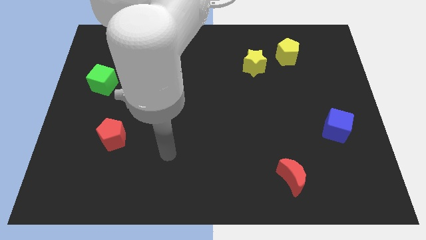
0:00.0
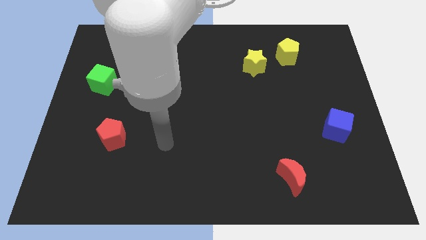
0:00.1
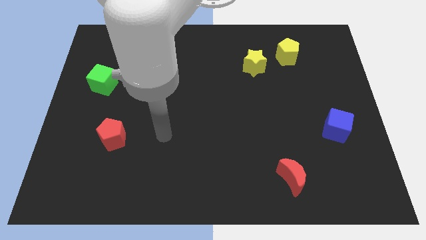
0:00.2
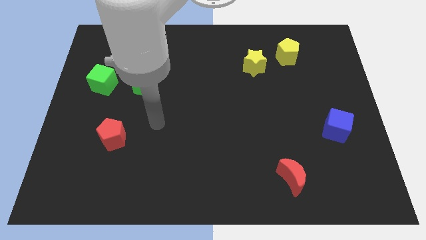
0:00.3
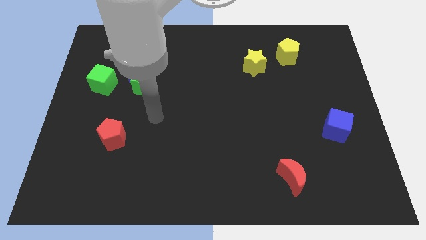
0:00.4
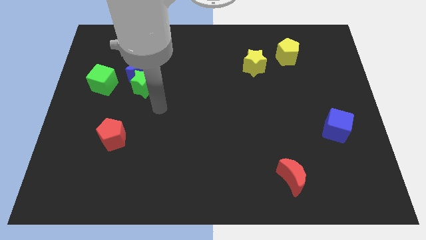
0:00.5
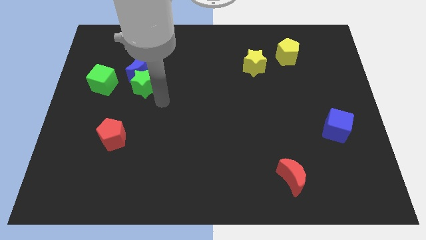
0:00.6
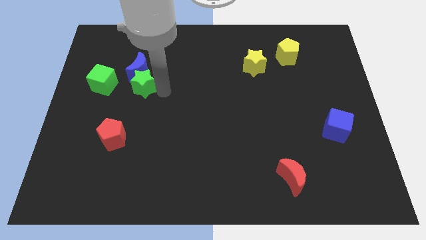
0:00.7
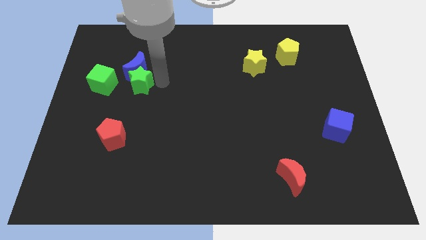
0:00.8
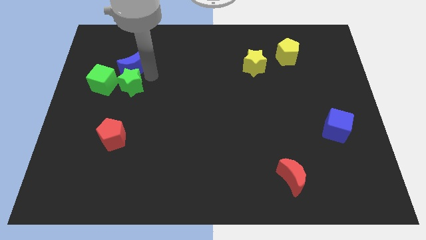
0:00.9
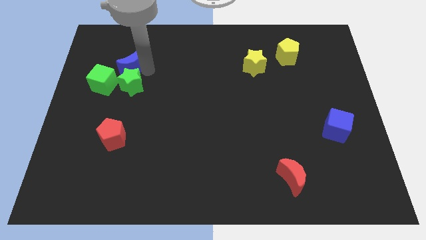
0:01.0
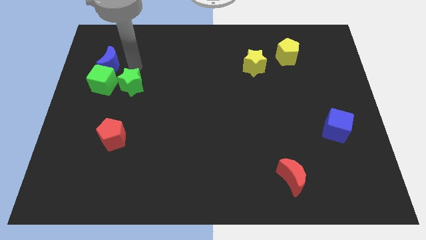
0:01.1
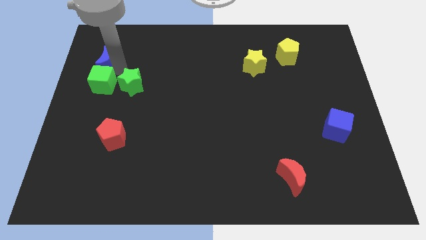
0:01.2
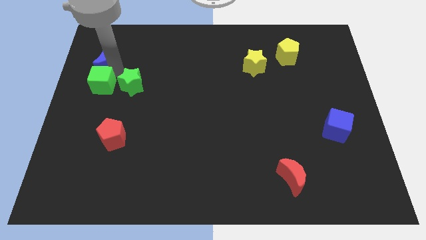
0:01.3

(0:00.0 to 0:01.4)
separate the green star from the blue moon

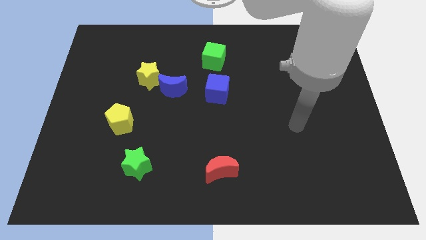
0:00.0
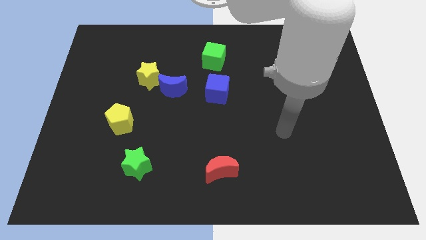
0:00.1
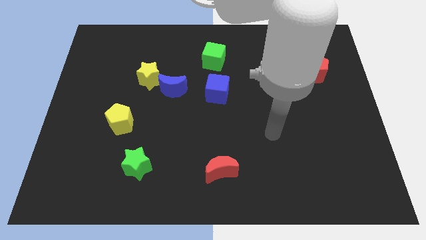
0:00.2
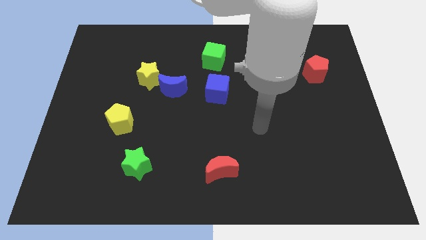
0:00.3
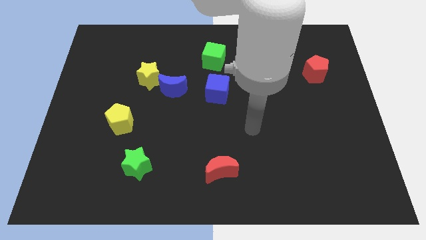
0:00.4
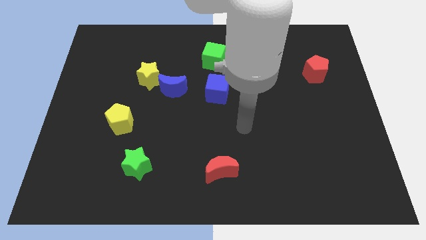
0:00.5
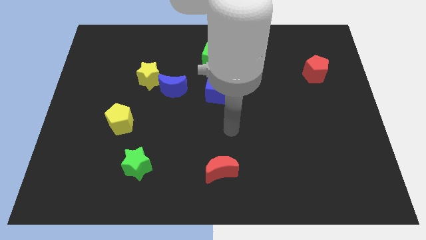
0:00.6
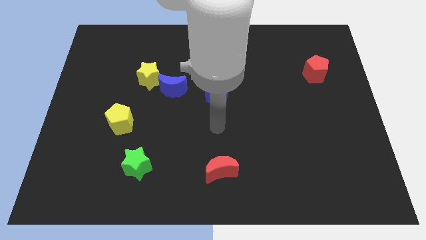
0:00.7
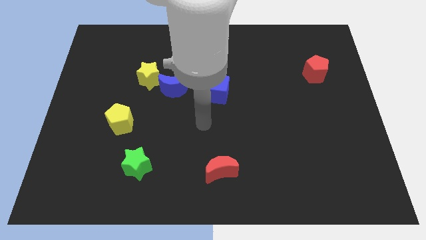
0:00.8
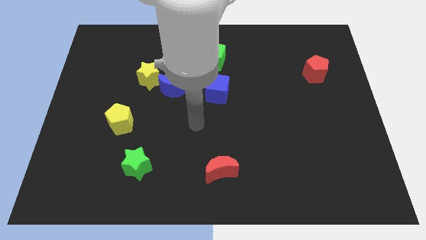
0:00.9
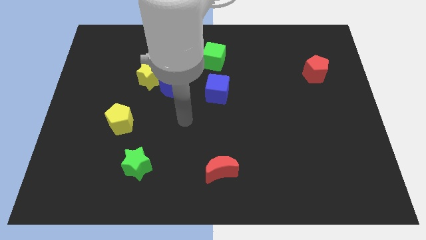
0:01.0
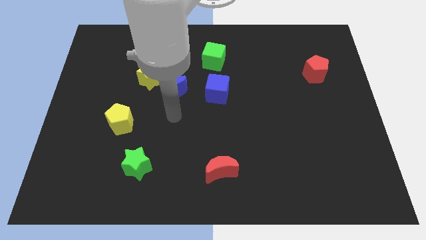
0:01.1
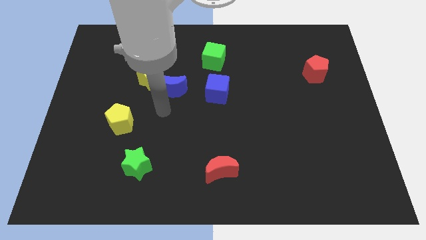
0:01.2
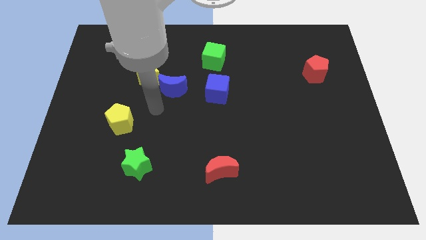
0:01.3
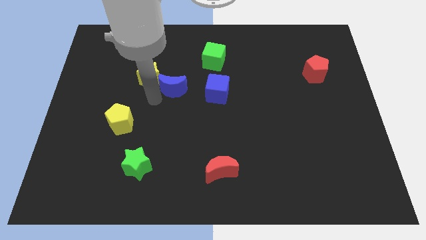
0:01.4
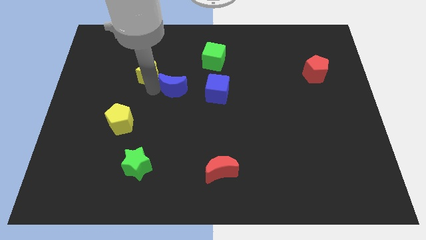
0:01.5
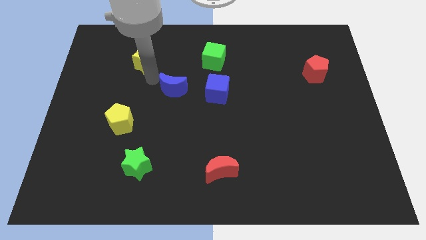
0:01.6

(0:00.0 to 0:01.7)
separate the blue moon from the yellow star

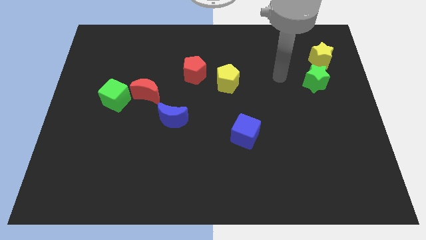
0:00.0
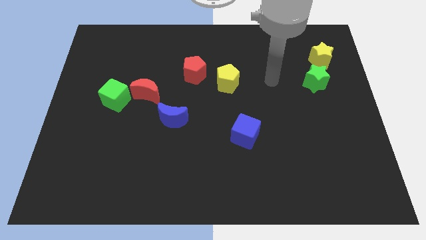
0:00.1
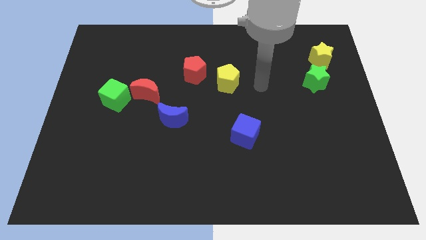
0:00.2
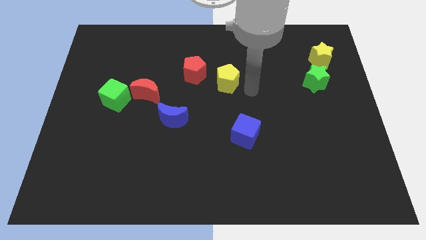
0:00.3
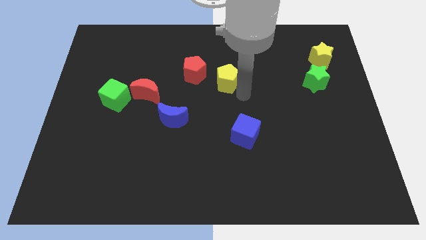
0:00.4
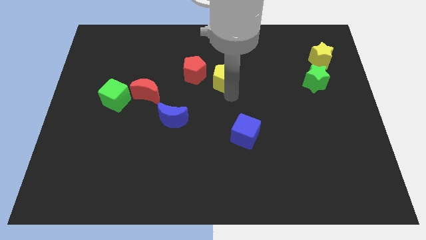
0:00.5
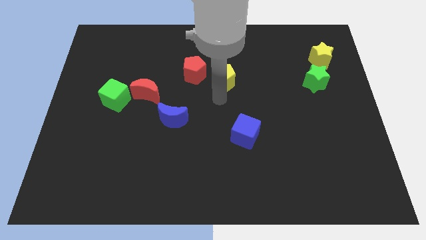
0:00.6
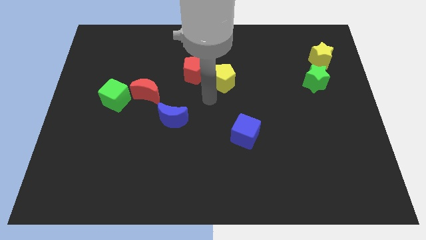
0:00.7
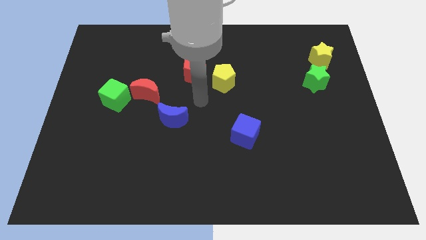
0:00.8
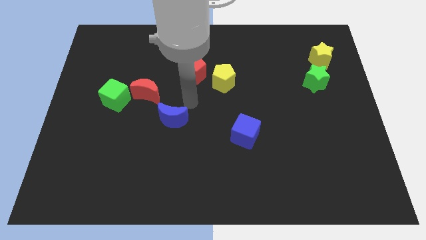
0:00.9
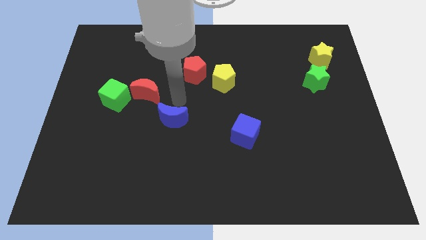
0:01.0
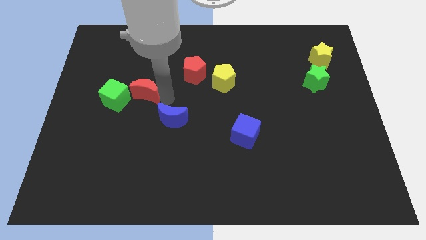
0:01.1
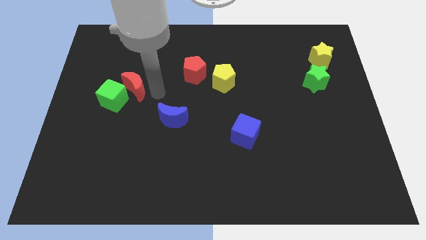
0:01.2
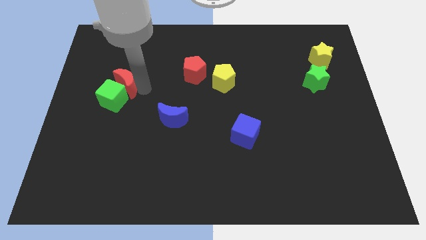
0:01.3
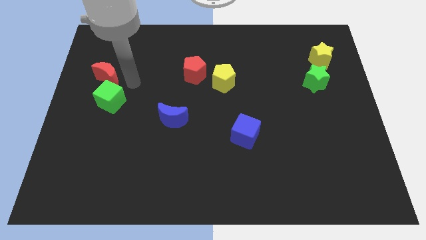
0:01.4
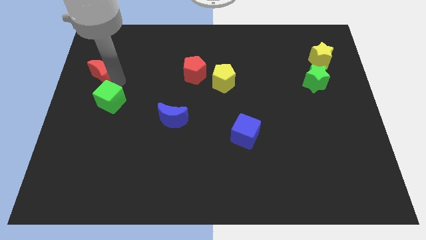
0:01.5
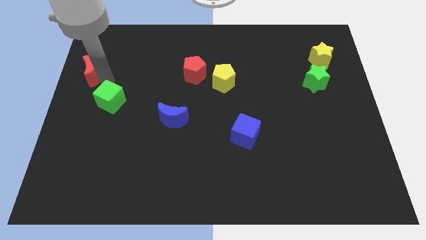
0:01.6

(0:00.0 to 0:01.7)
move the green cube away from the red moon

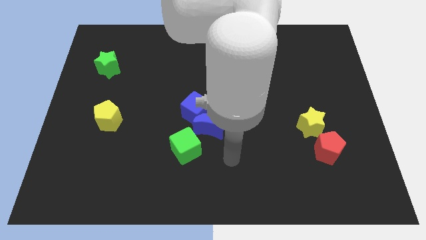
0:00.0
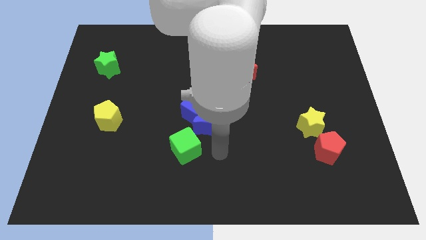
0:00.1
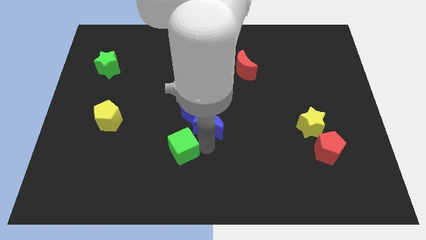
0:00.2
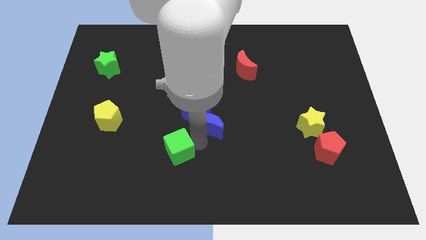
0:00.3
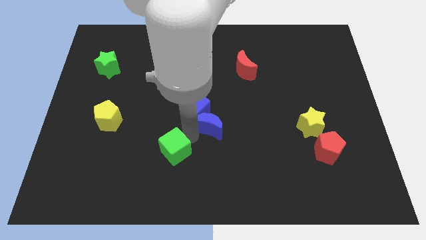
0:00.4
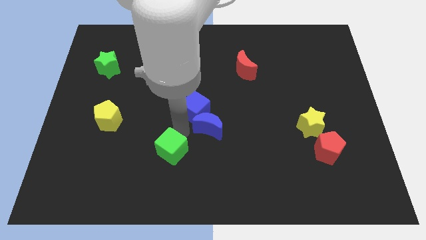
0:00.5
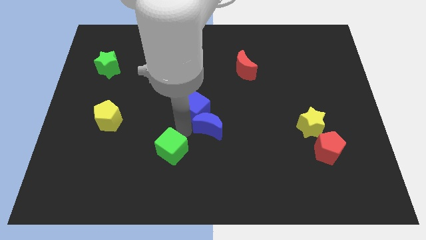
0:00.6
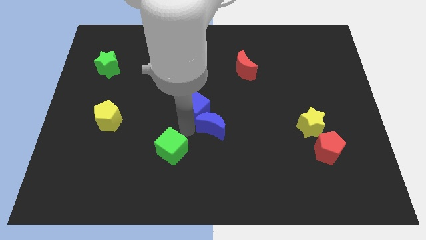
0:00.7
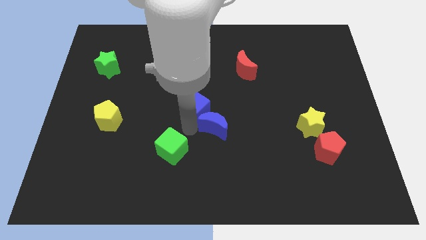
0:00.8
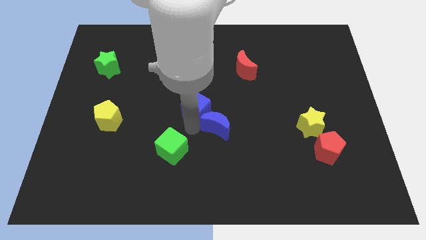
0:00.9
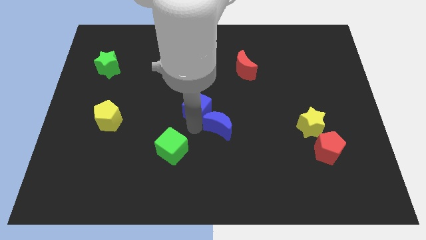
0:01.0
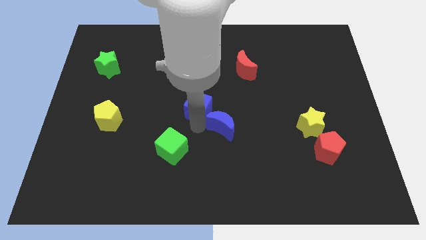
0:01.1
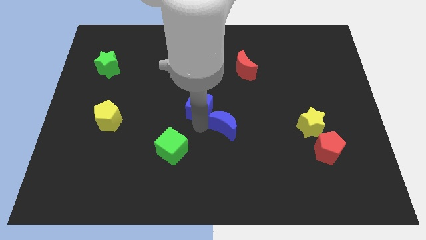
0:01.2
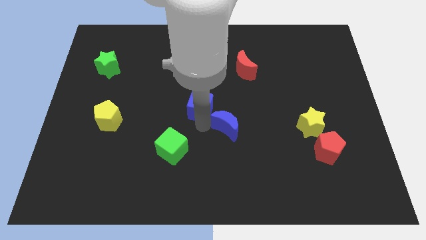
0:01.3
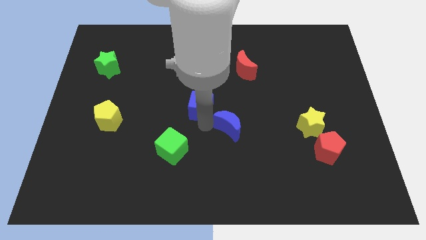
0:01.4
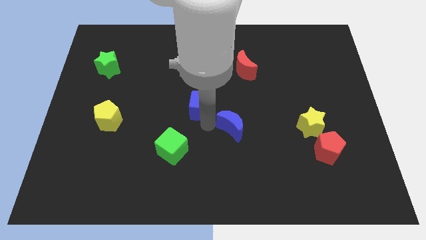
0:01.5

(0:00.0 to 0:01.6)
pull the blue moon apart from the blue cube and green cube

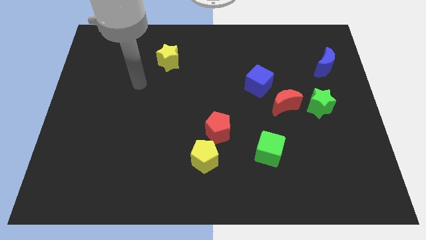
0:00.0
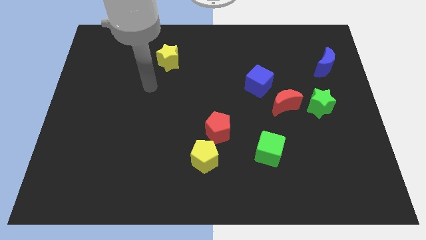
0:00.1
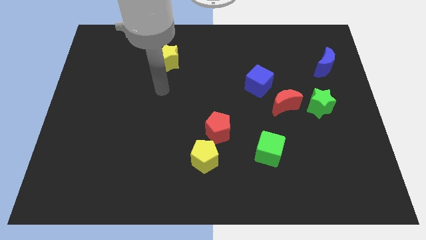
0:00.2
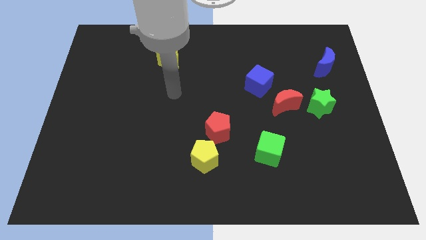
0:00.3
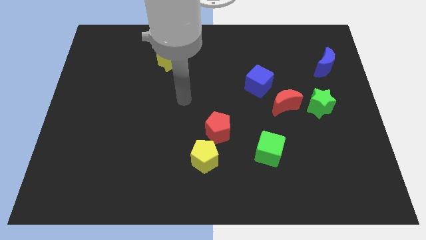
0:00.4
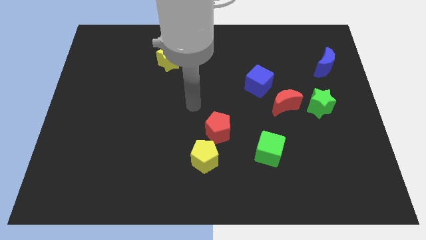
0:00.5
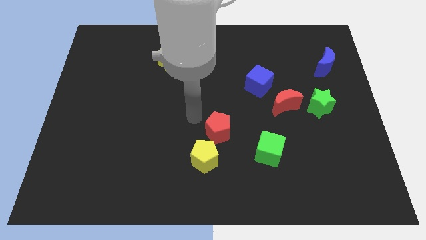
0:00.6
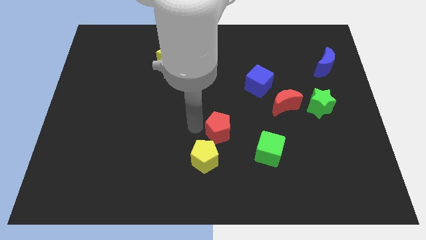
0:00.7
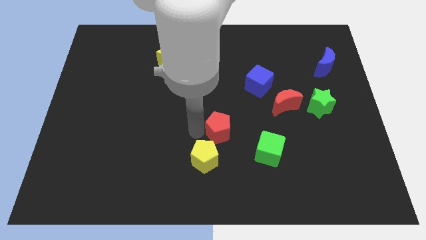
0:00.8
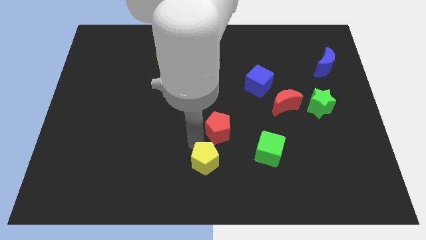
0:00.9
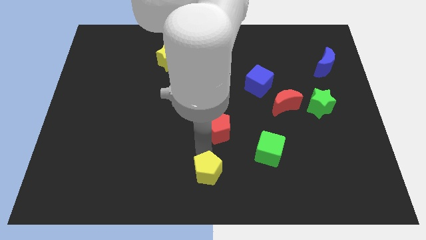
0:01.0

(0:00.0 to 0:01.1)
separate the red pentagon from the yellow pentagon

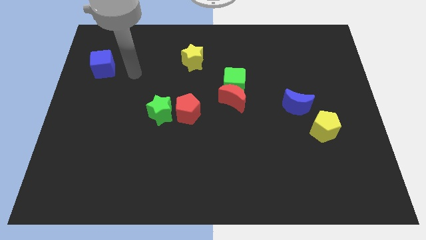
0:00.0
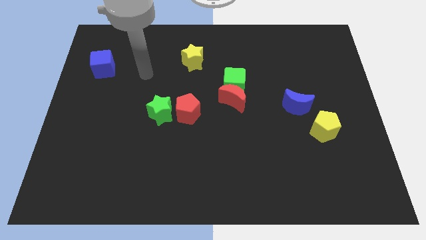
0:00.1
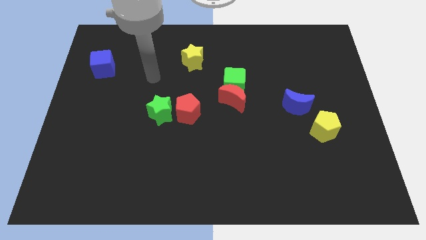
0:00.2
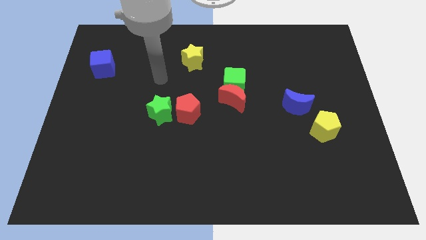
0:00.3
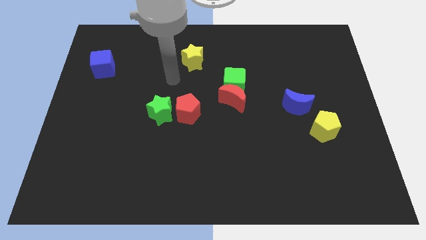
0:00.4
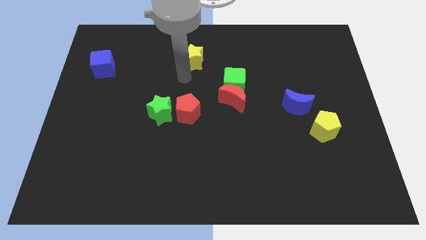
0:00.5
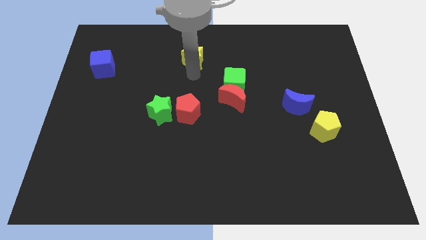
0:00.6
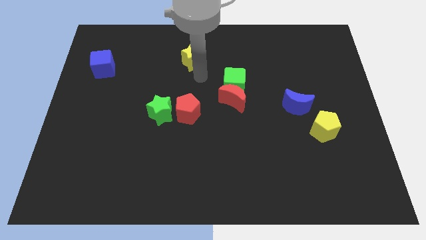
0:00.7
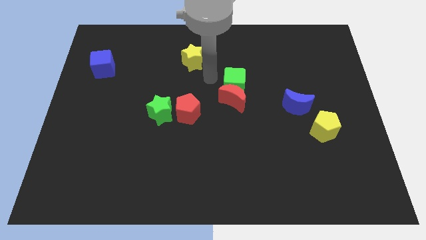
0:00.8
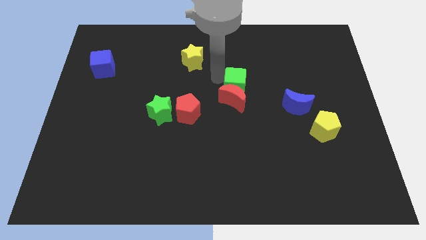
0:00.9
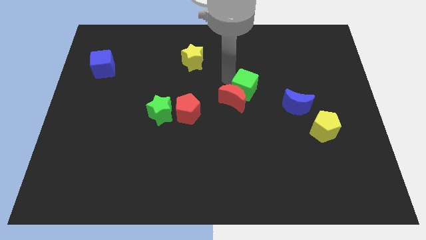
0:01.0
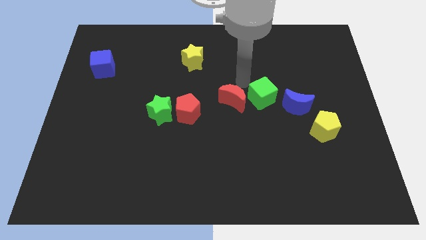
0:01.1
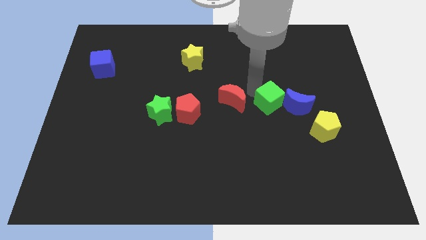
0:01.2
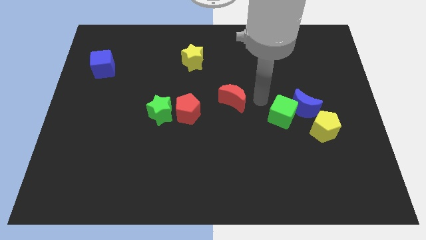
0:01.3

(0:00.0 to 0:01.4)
pull the red moon apart from the green cube

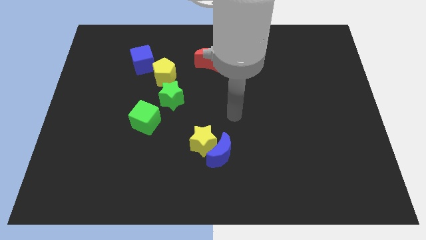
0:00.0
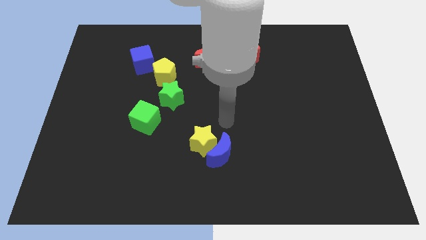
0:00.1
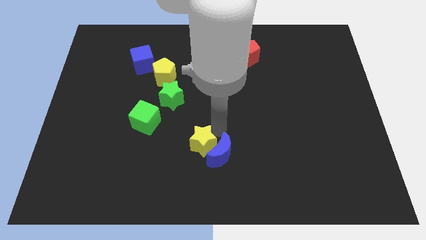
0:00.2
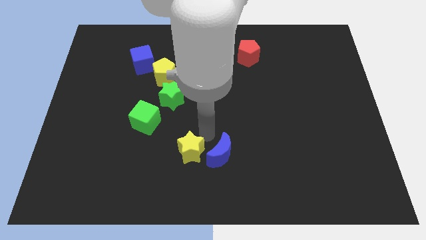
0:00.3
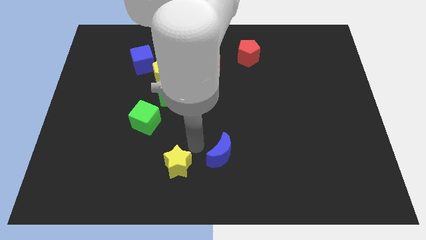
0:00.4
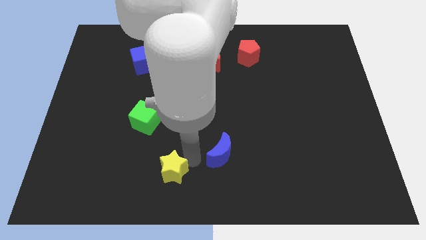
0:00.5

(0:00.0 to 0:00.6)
pull the blue moon apart from the yellow star
